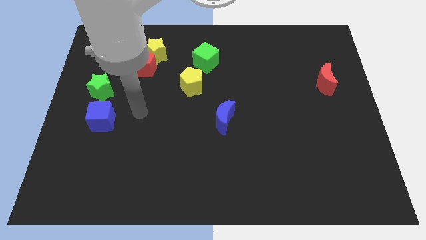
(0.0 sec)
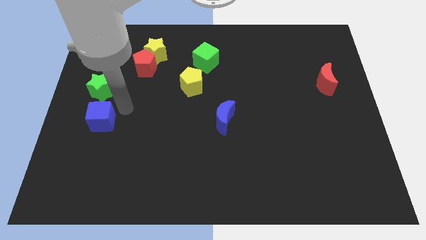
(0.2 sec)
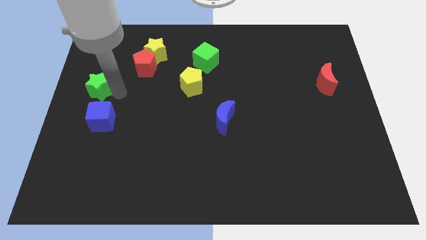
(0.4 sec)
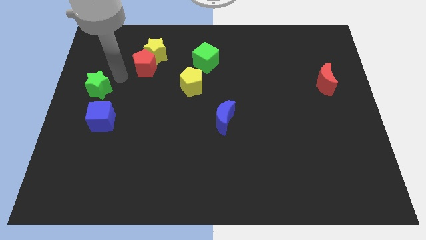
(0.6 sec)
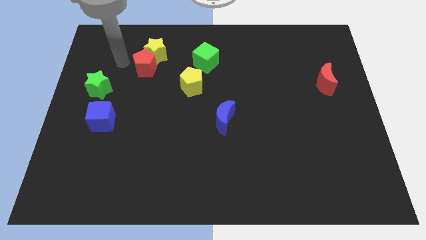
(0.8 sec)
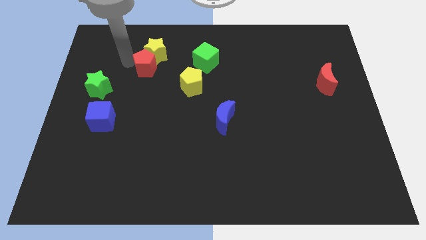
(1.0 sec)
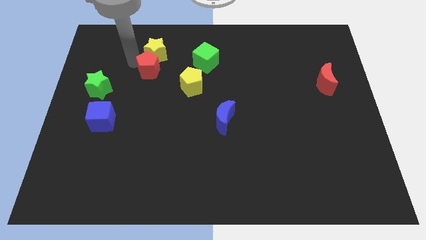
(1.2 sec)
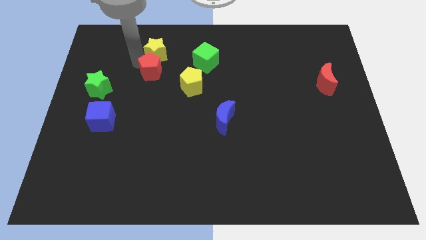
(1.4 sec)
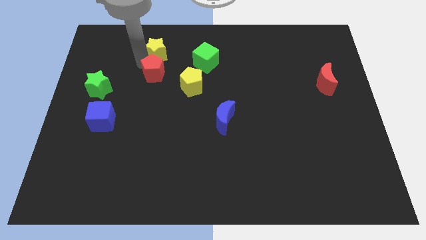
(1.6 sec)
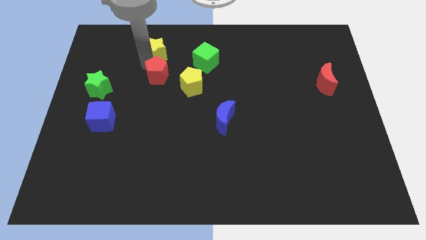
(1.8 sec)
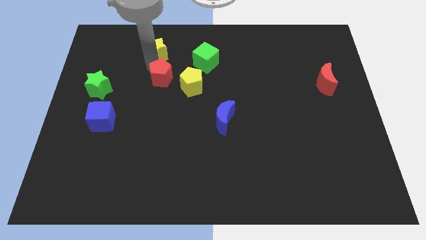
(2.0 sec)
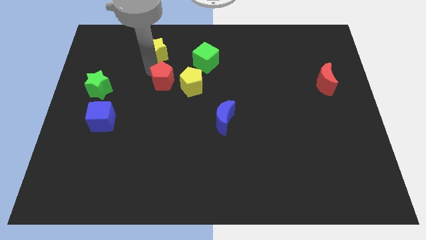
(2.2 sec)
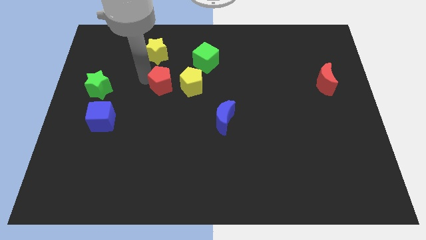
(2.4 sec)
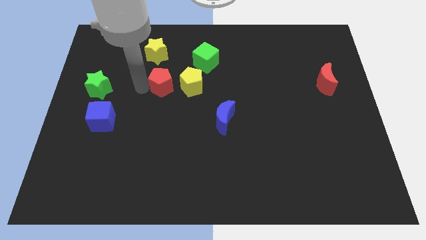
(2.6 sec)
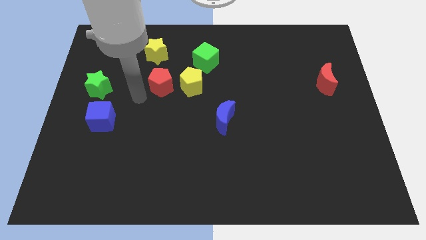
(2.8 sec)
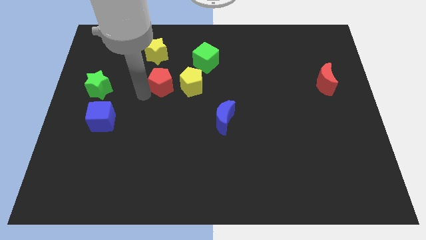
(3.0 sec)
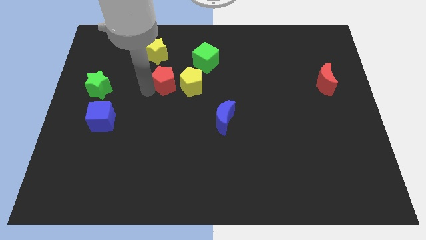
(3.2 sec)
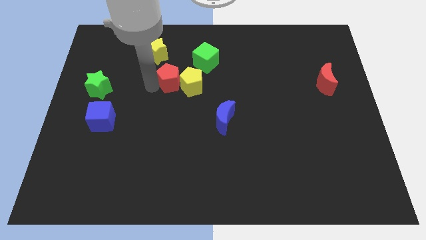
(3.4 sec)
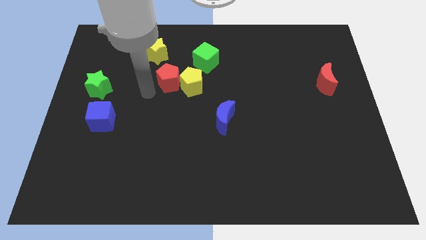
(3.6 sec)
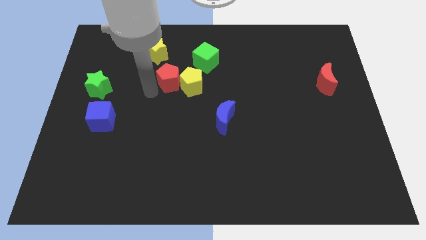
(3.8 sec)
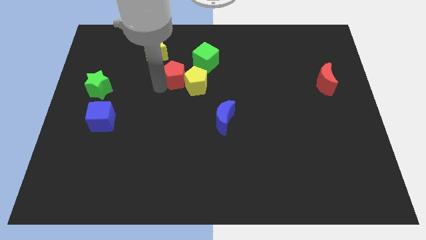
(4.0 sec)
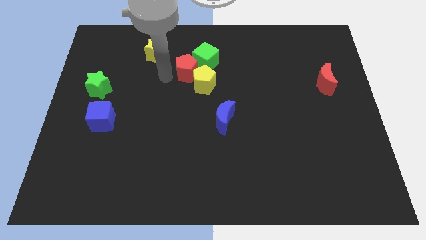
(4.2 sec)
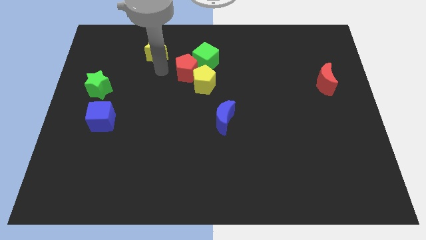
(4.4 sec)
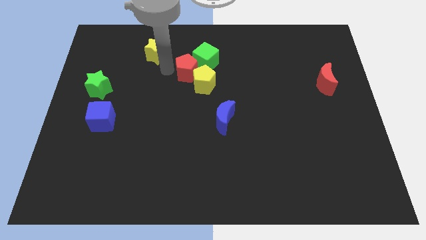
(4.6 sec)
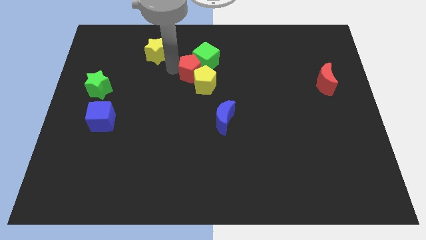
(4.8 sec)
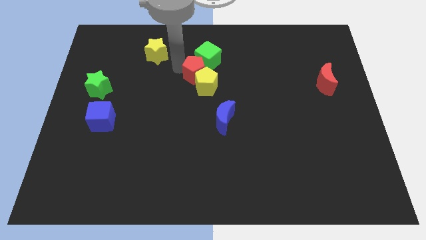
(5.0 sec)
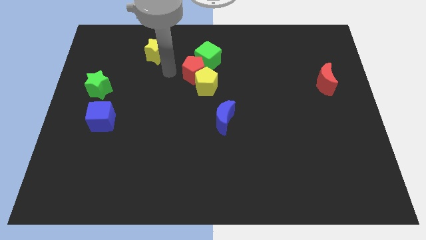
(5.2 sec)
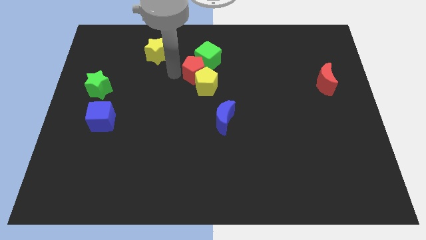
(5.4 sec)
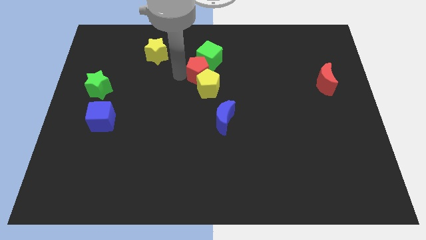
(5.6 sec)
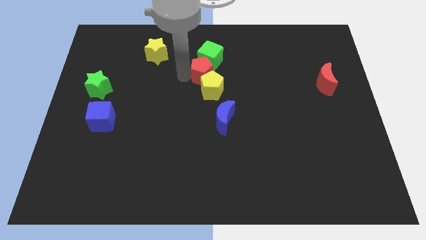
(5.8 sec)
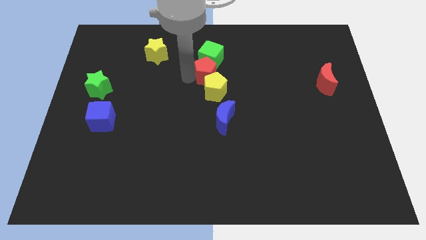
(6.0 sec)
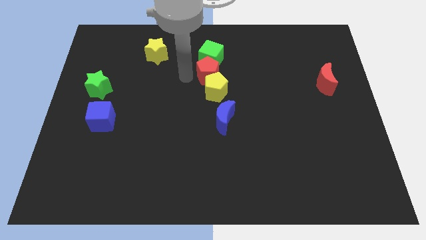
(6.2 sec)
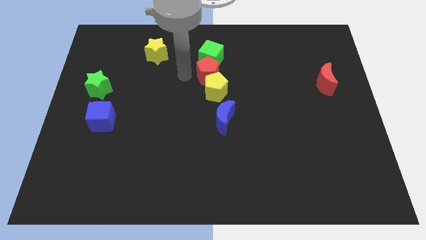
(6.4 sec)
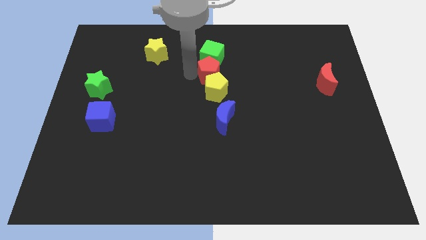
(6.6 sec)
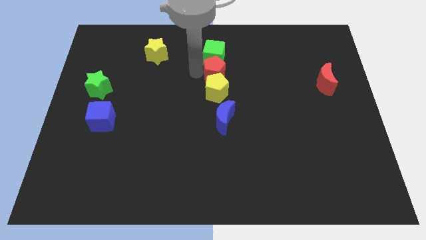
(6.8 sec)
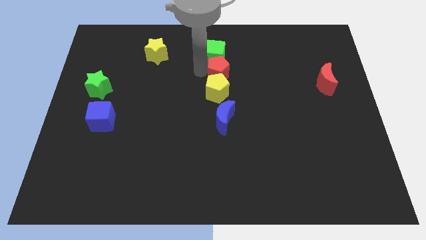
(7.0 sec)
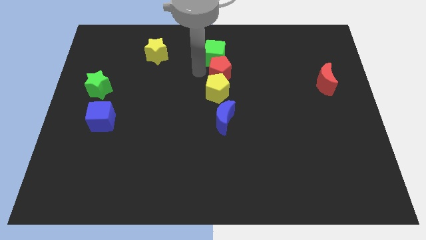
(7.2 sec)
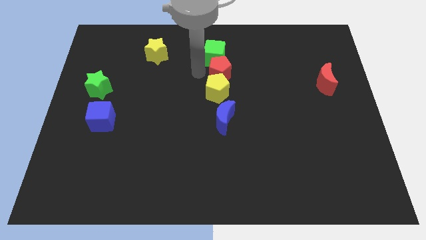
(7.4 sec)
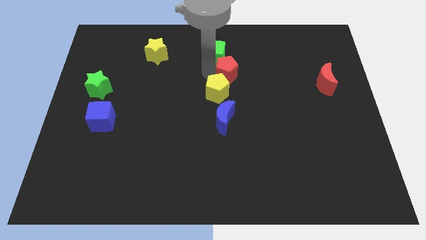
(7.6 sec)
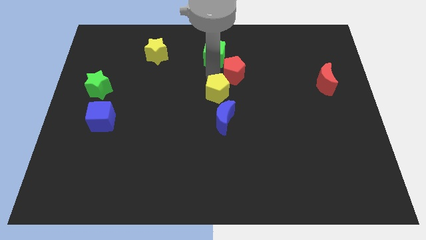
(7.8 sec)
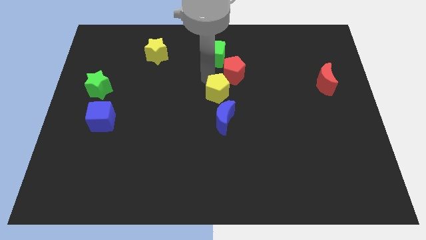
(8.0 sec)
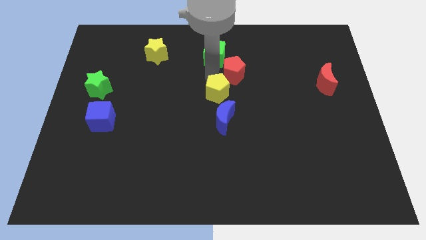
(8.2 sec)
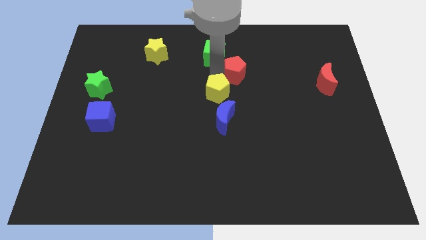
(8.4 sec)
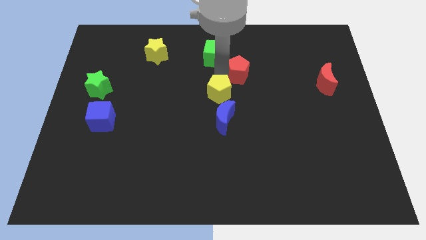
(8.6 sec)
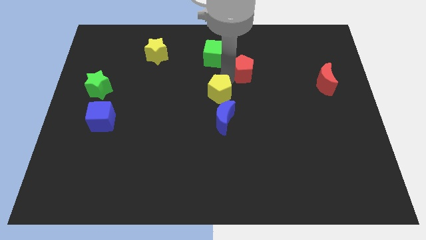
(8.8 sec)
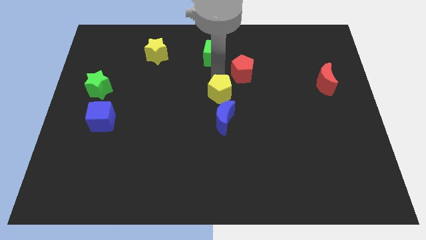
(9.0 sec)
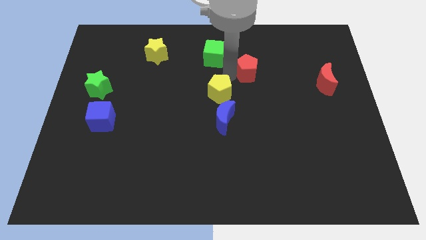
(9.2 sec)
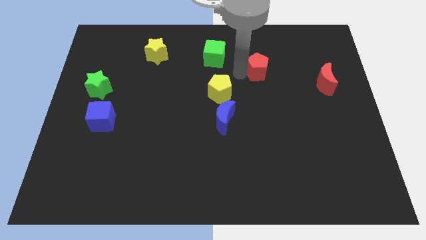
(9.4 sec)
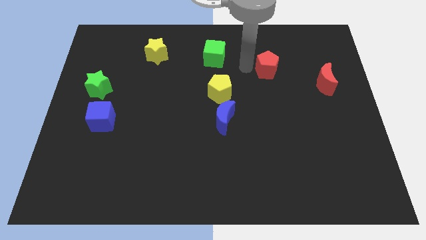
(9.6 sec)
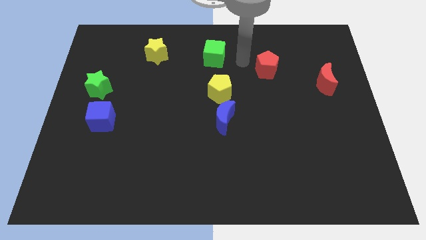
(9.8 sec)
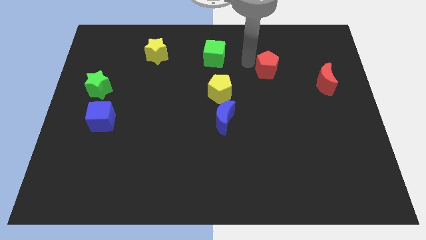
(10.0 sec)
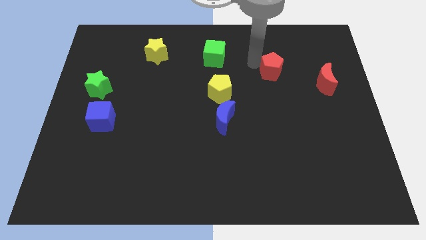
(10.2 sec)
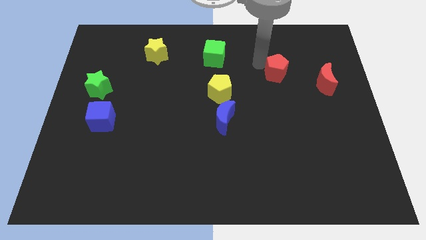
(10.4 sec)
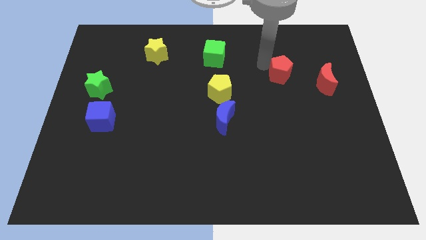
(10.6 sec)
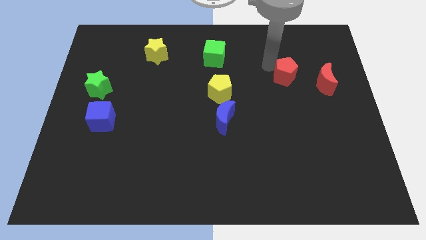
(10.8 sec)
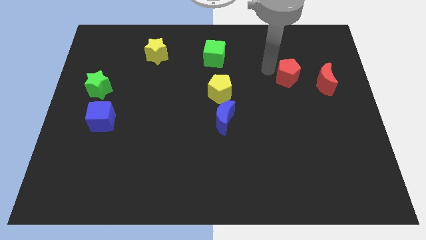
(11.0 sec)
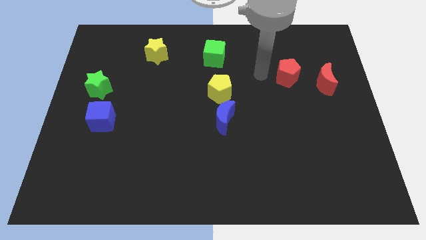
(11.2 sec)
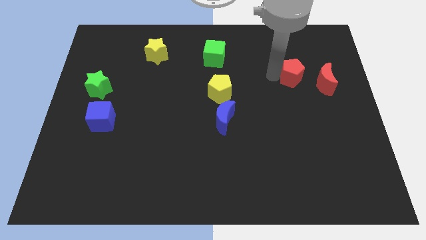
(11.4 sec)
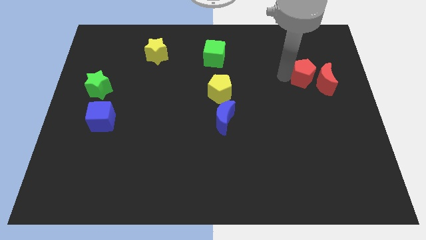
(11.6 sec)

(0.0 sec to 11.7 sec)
put the red pentagon towards the red moon
